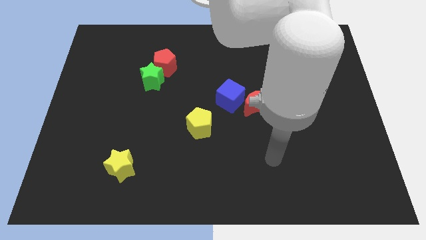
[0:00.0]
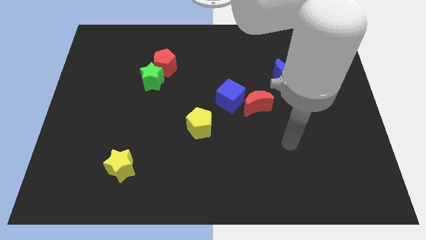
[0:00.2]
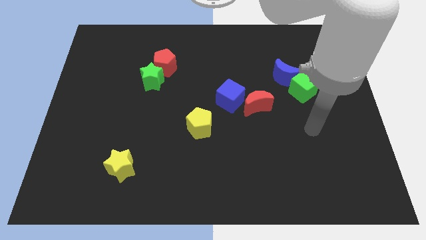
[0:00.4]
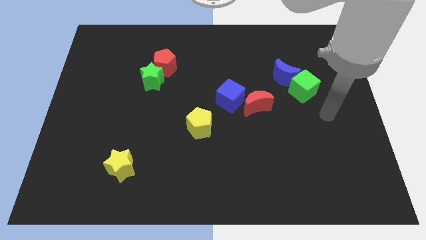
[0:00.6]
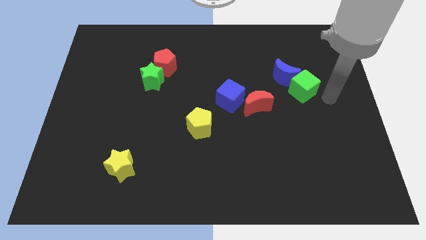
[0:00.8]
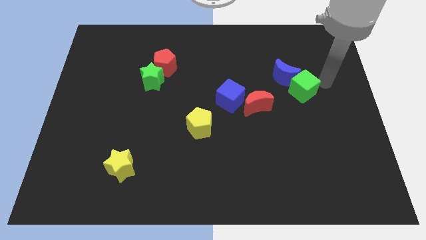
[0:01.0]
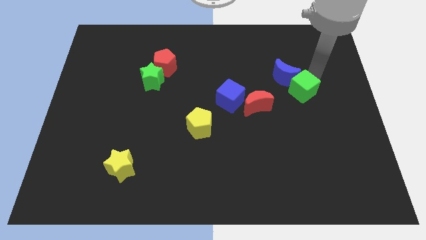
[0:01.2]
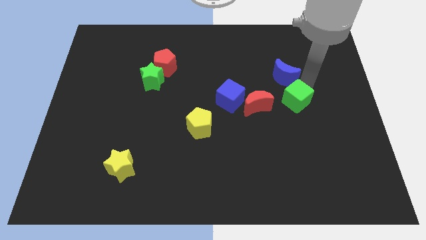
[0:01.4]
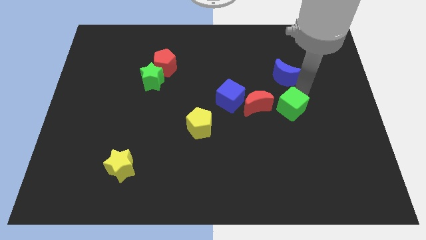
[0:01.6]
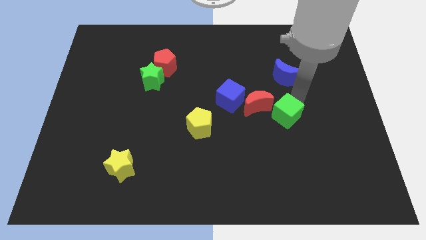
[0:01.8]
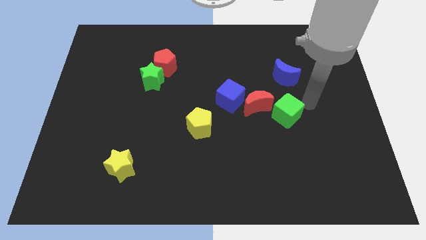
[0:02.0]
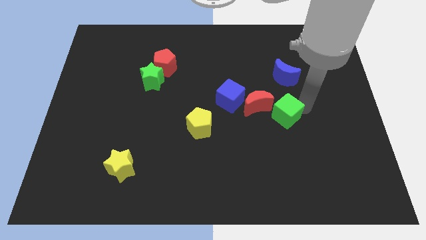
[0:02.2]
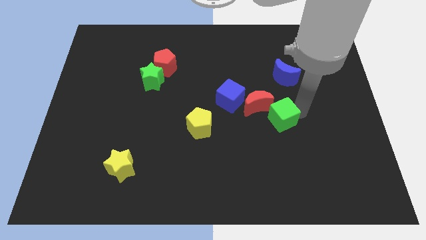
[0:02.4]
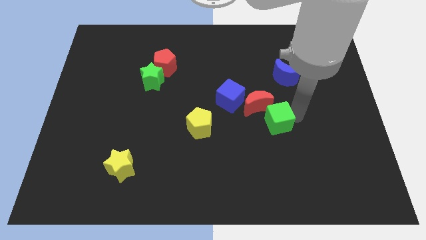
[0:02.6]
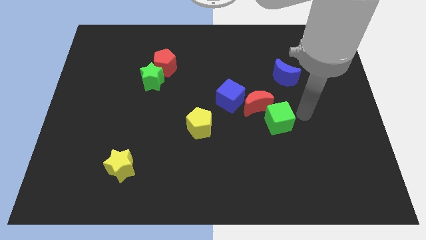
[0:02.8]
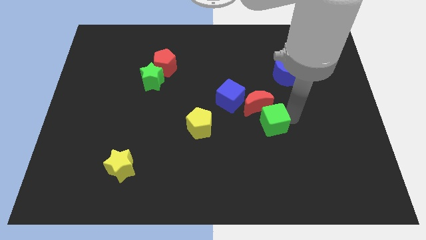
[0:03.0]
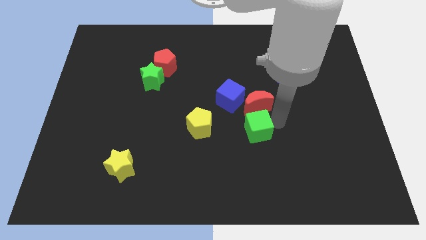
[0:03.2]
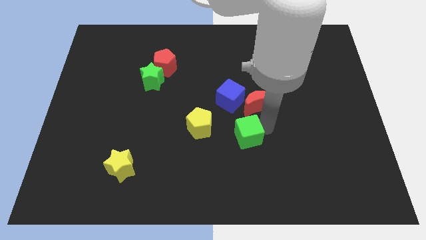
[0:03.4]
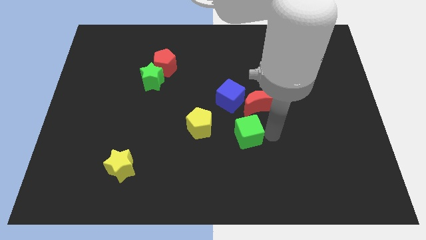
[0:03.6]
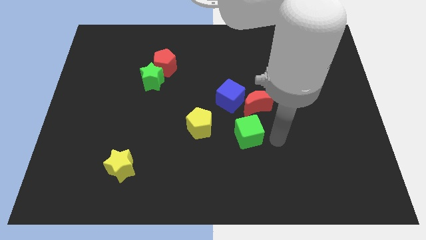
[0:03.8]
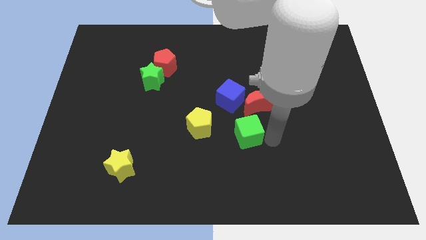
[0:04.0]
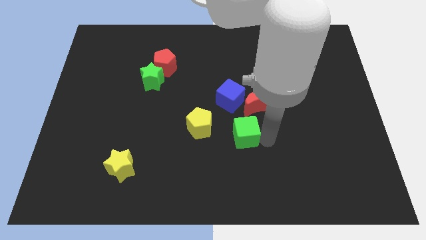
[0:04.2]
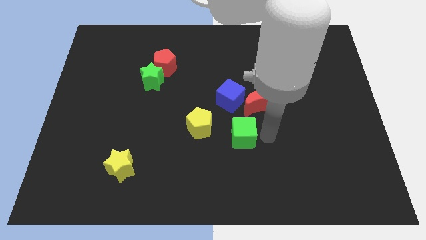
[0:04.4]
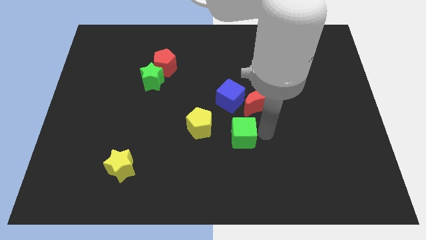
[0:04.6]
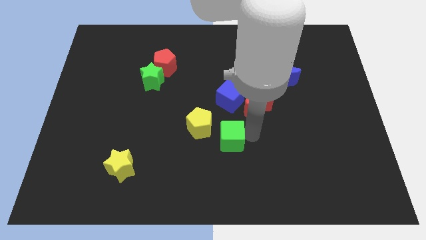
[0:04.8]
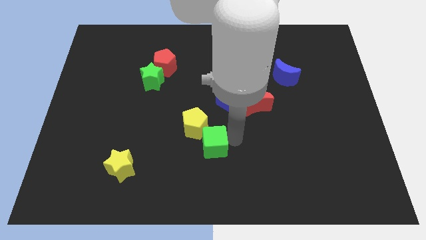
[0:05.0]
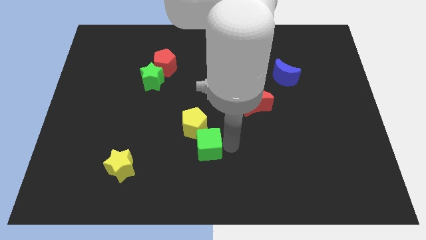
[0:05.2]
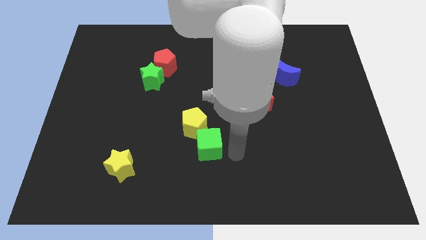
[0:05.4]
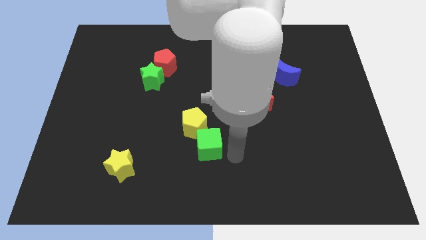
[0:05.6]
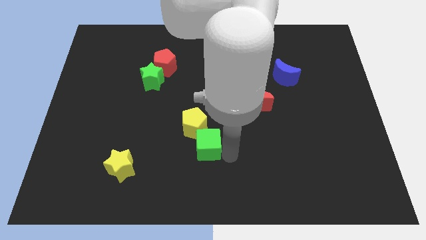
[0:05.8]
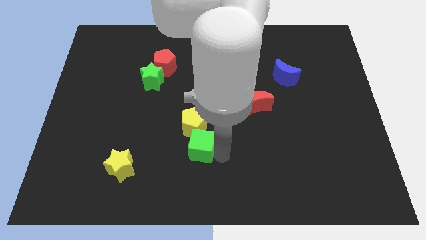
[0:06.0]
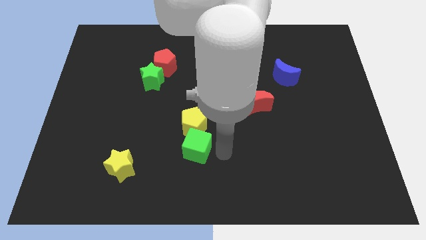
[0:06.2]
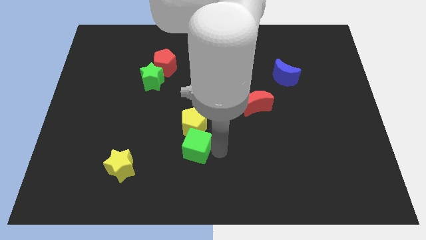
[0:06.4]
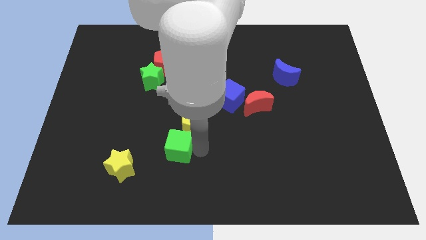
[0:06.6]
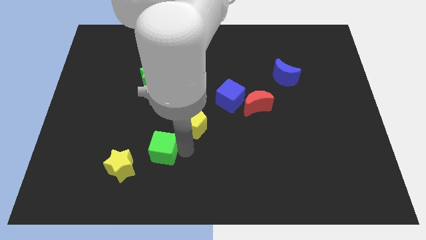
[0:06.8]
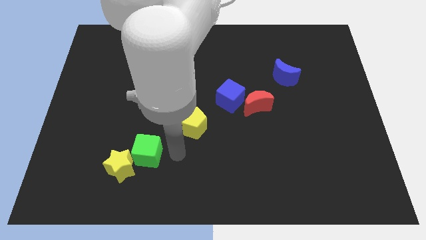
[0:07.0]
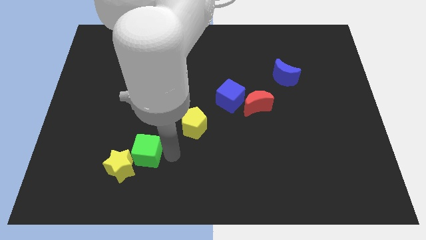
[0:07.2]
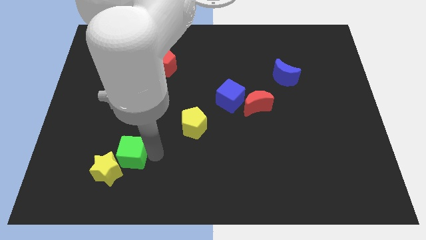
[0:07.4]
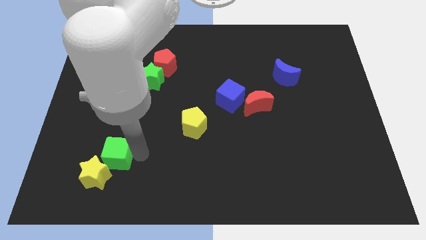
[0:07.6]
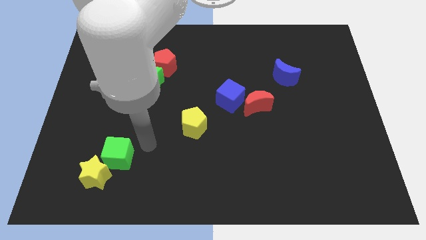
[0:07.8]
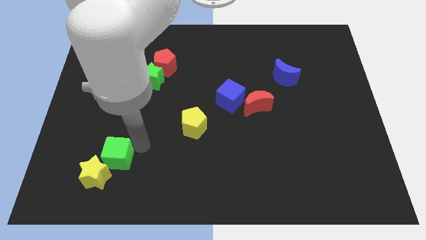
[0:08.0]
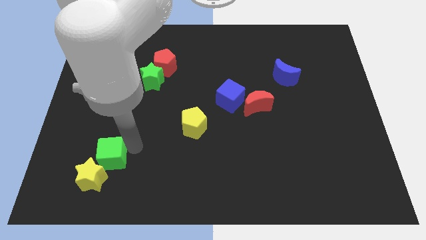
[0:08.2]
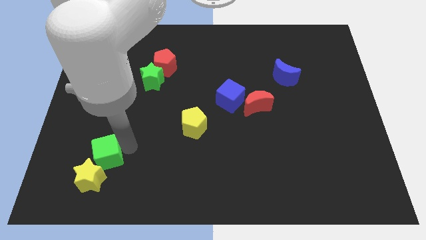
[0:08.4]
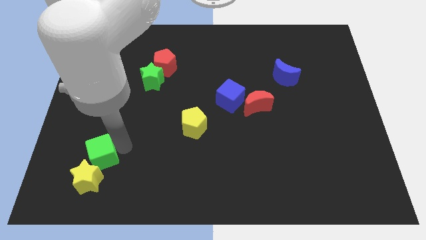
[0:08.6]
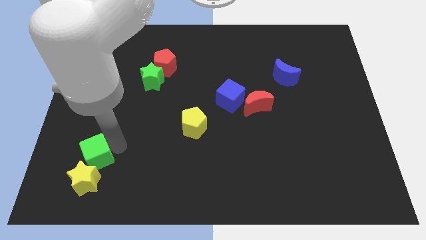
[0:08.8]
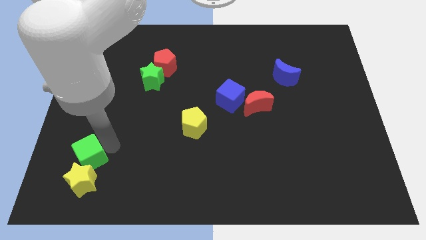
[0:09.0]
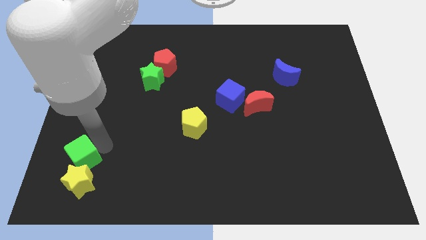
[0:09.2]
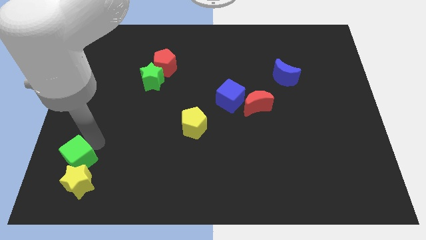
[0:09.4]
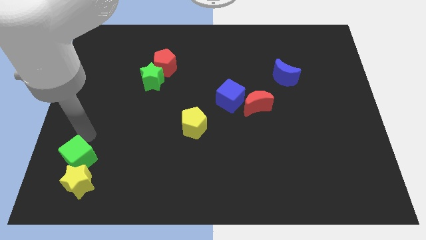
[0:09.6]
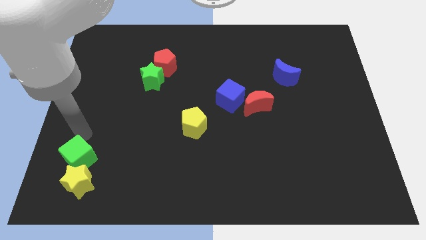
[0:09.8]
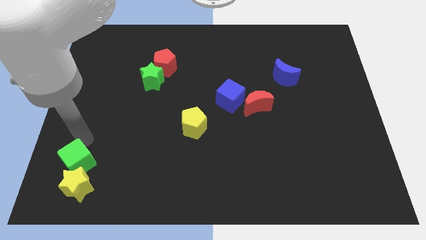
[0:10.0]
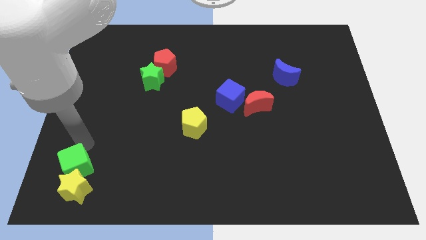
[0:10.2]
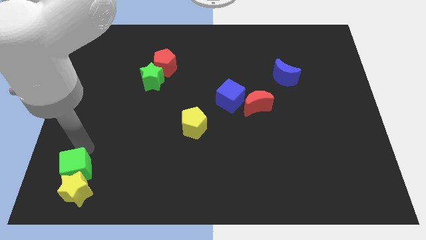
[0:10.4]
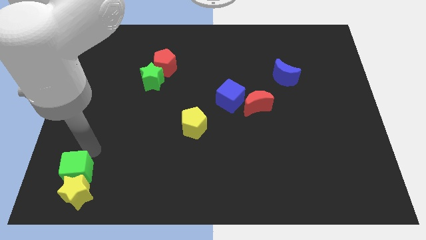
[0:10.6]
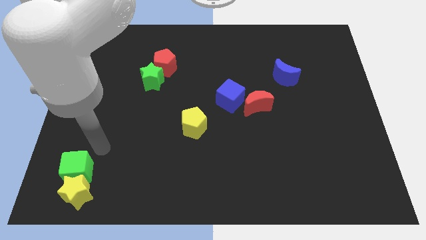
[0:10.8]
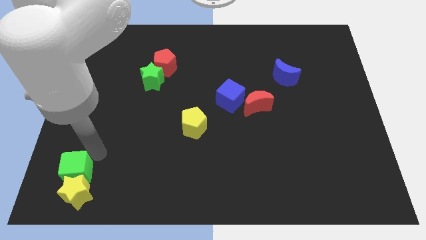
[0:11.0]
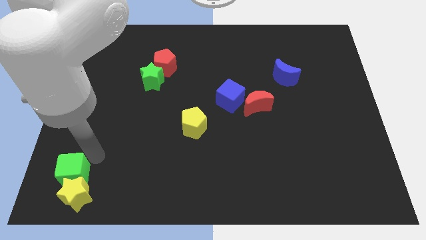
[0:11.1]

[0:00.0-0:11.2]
slide the green cube to the bottom left

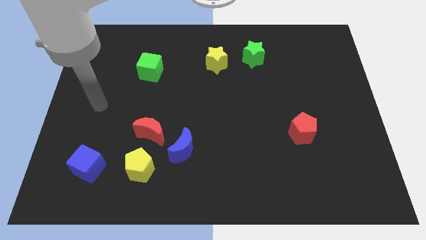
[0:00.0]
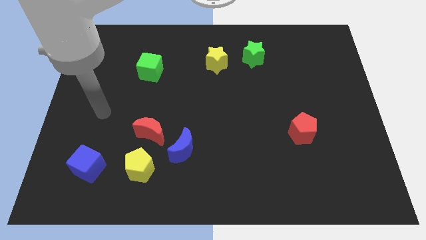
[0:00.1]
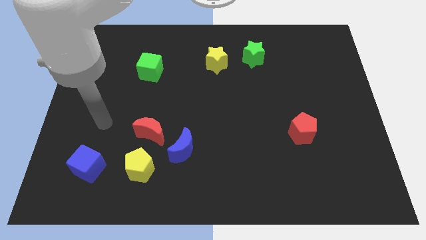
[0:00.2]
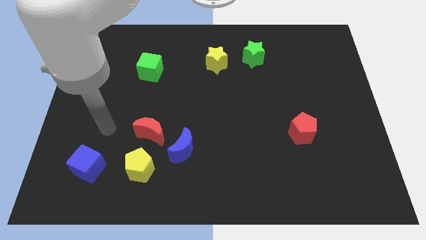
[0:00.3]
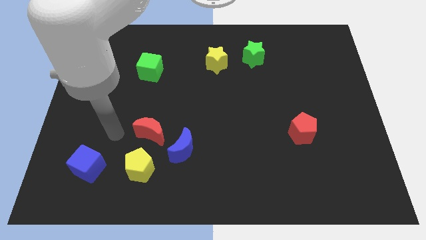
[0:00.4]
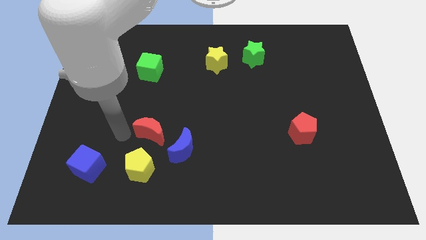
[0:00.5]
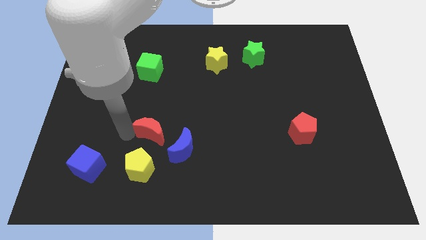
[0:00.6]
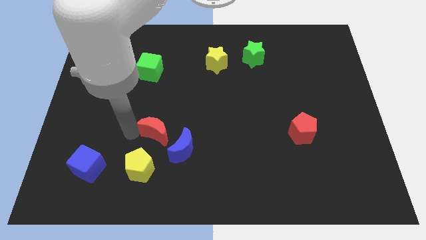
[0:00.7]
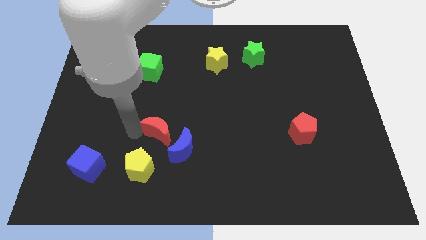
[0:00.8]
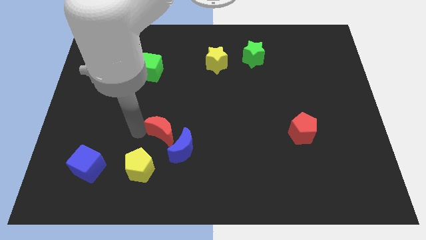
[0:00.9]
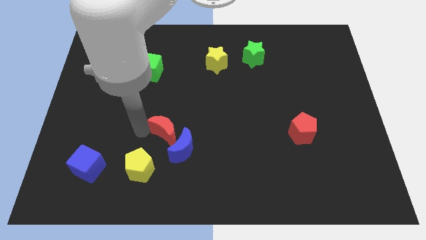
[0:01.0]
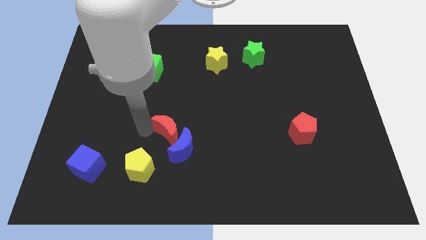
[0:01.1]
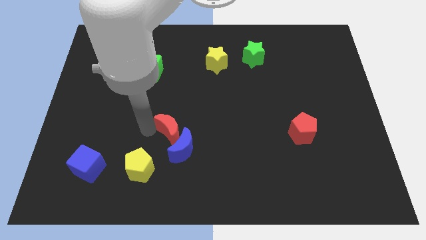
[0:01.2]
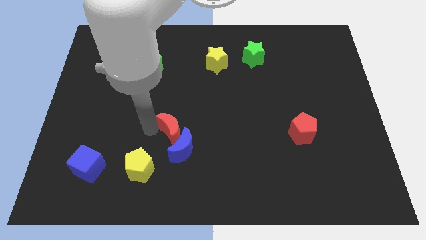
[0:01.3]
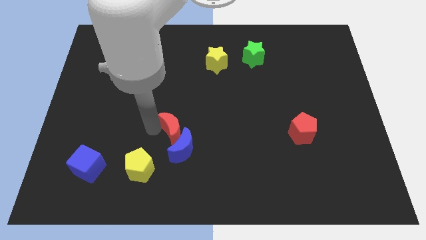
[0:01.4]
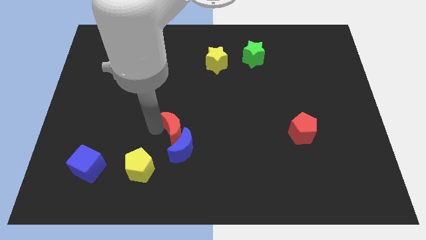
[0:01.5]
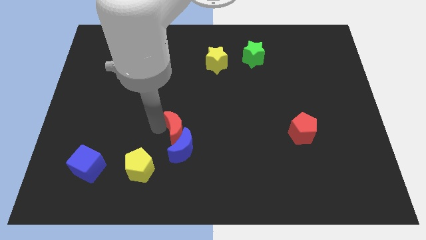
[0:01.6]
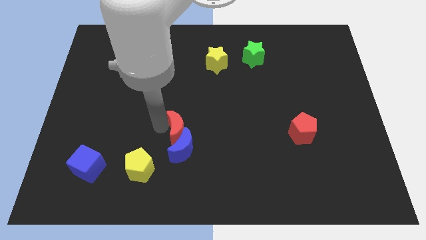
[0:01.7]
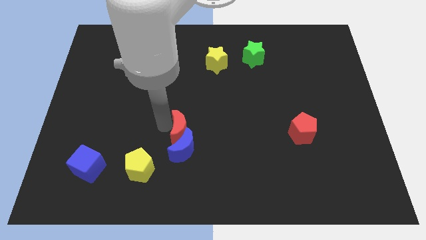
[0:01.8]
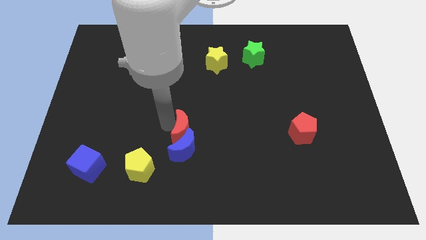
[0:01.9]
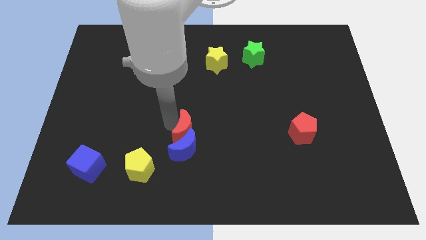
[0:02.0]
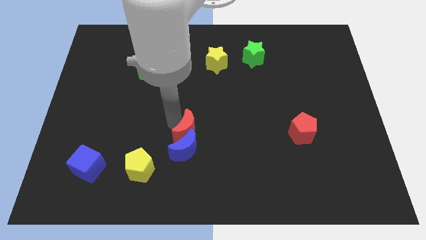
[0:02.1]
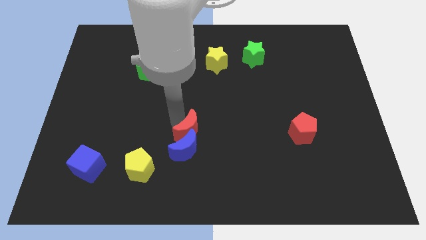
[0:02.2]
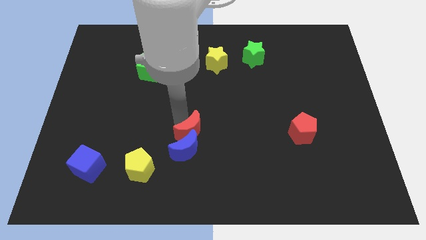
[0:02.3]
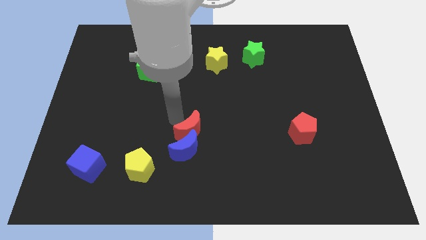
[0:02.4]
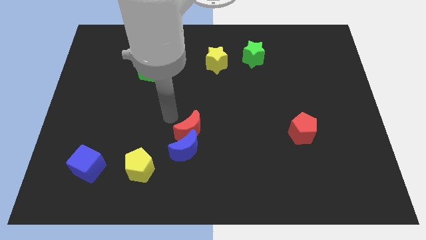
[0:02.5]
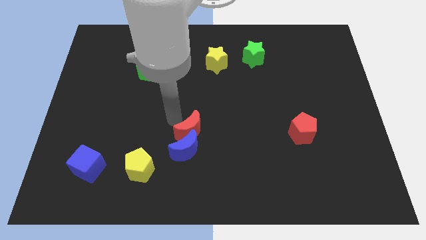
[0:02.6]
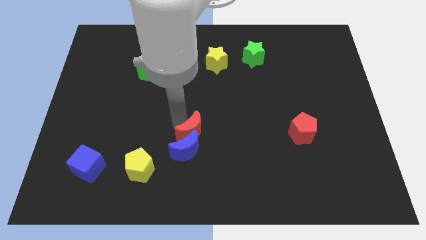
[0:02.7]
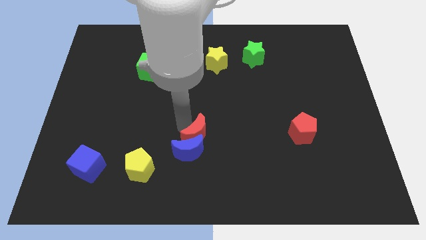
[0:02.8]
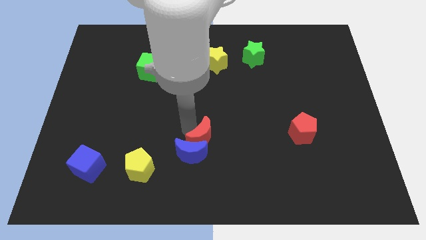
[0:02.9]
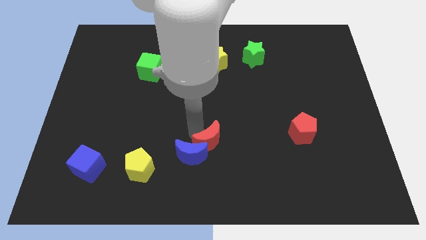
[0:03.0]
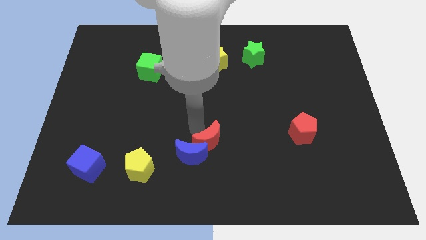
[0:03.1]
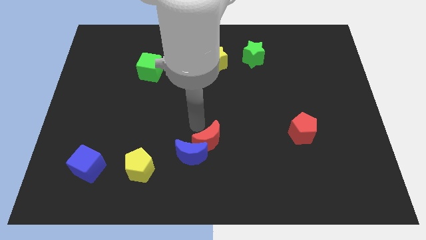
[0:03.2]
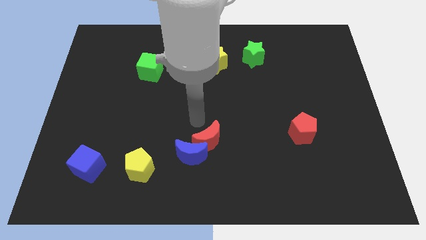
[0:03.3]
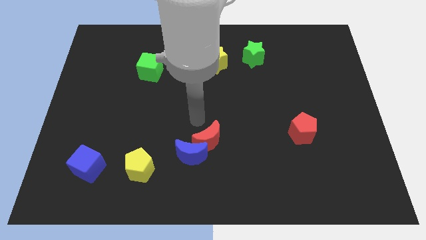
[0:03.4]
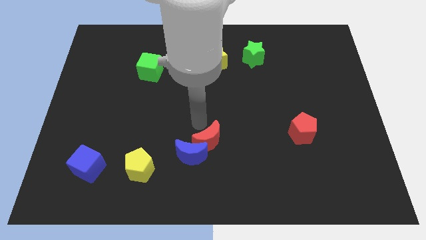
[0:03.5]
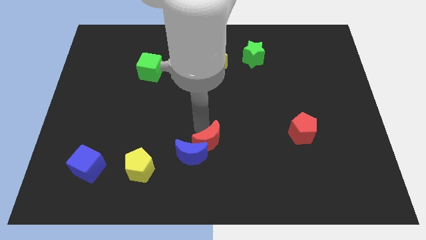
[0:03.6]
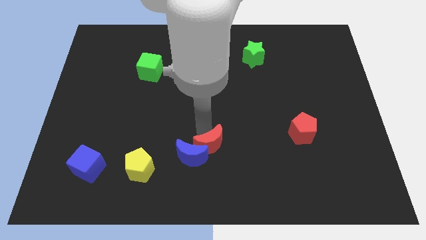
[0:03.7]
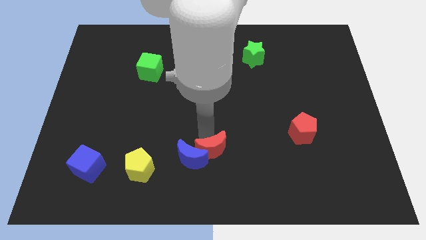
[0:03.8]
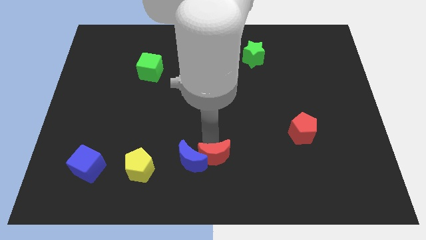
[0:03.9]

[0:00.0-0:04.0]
put the red moon to the bottom
